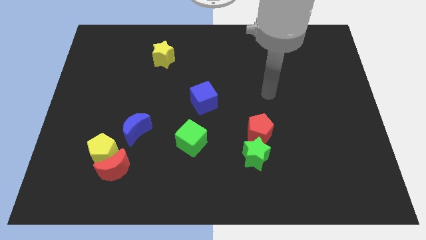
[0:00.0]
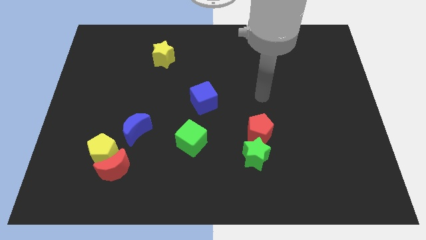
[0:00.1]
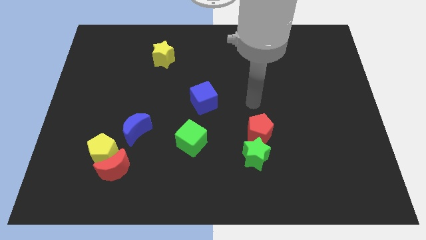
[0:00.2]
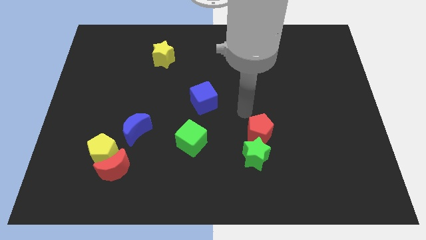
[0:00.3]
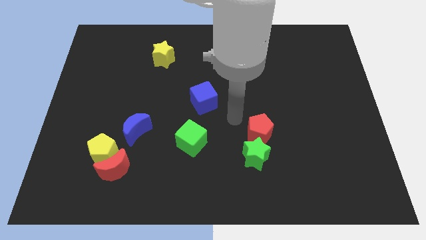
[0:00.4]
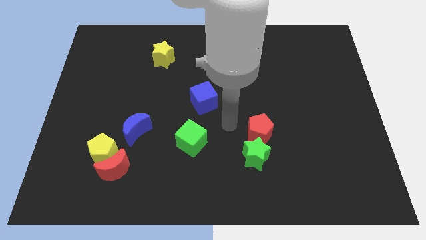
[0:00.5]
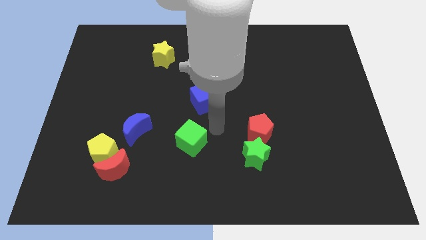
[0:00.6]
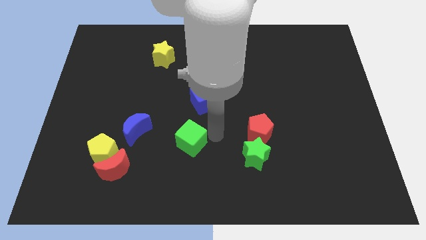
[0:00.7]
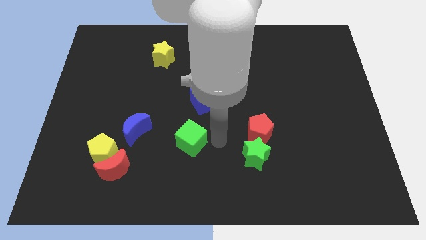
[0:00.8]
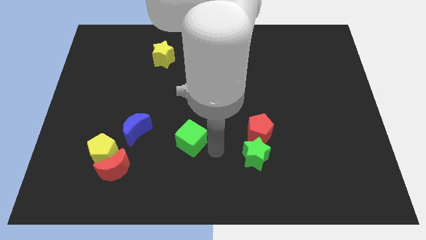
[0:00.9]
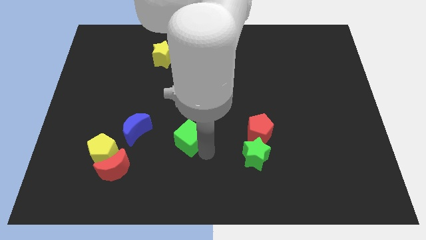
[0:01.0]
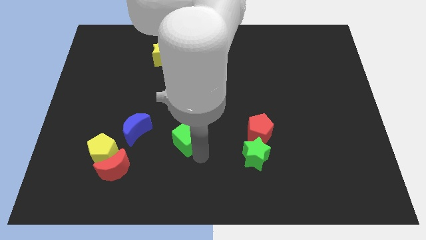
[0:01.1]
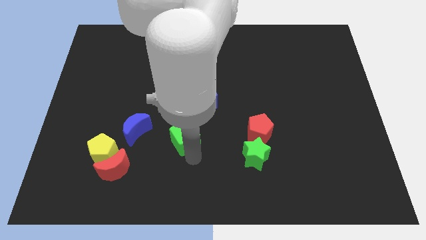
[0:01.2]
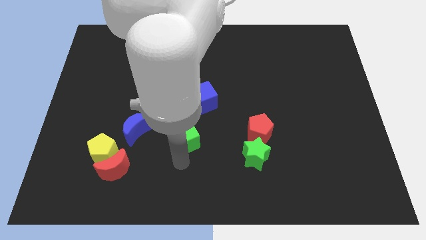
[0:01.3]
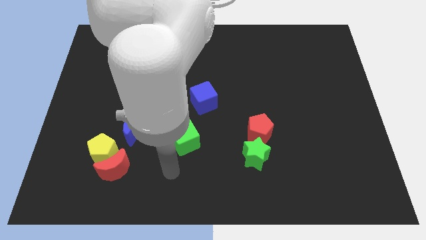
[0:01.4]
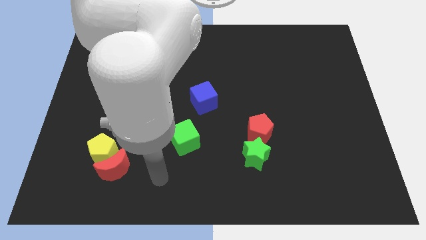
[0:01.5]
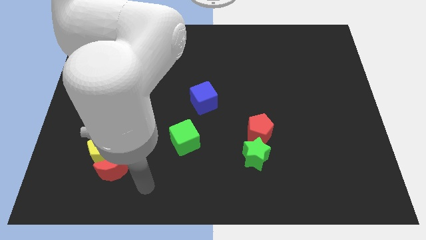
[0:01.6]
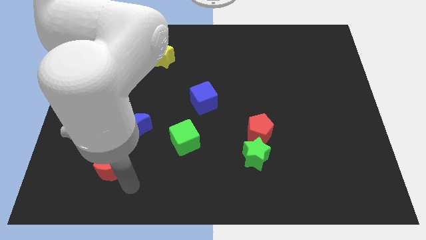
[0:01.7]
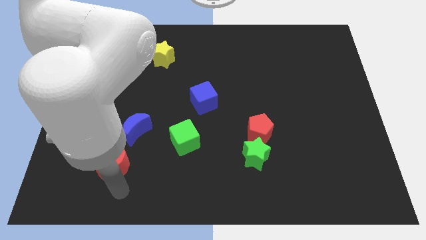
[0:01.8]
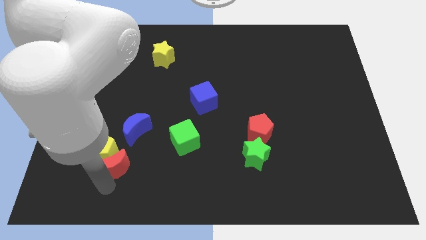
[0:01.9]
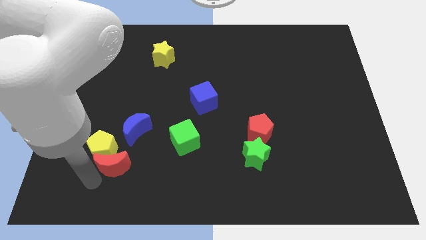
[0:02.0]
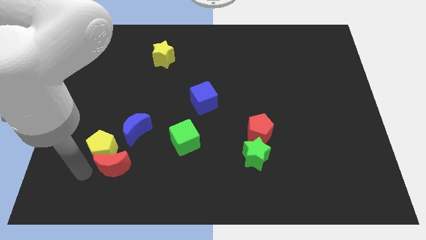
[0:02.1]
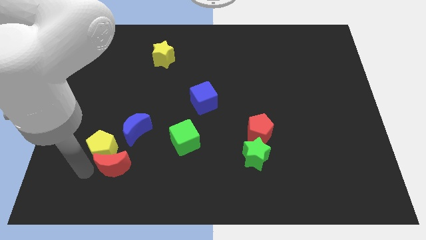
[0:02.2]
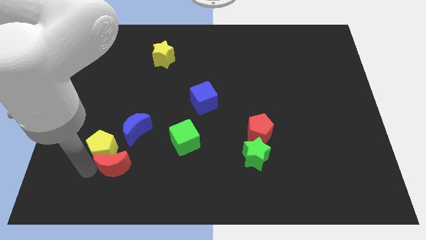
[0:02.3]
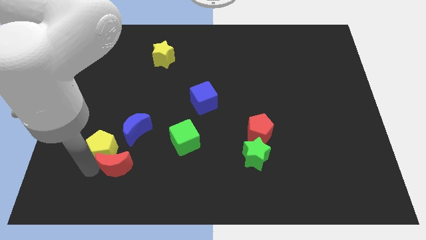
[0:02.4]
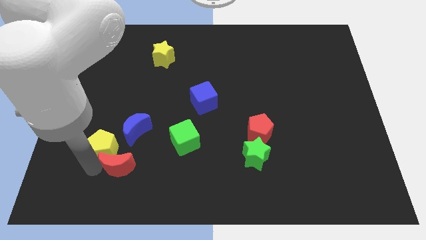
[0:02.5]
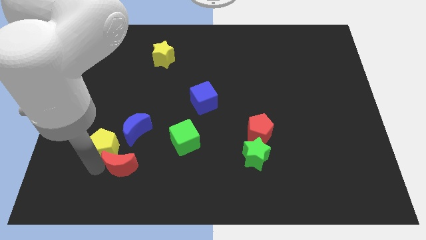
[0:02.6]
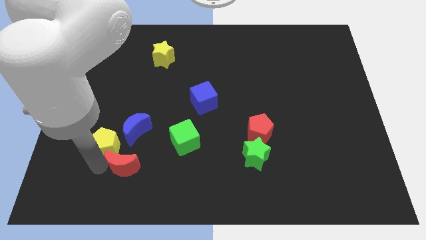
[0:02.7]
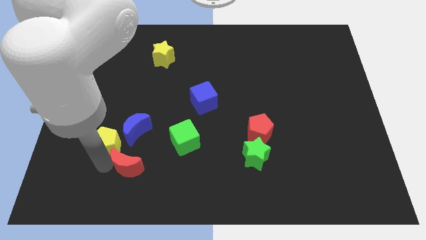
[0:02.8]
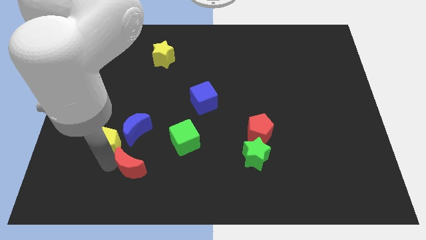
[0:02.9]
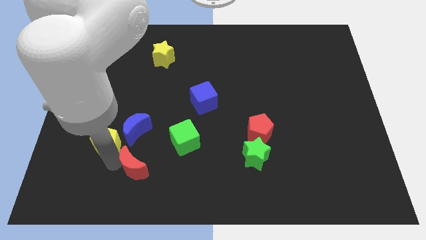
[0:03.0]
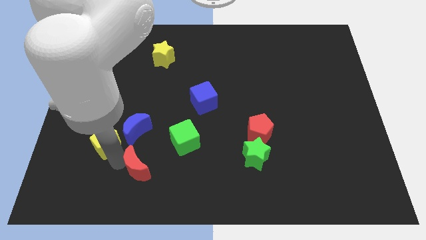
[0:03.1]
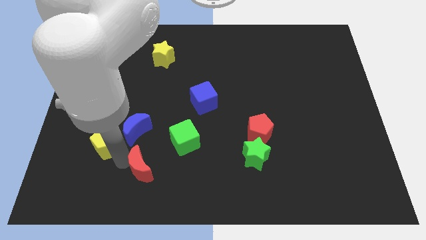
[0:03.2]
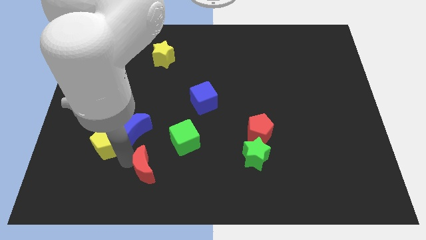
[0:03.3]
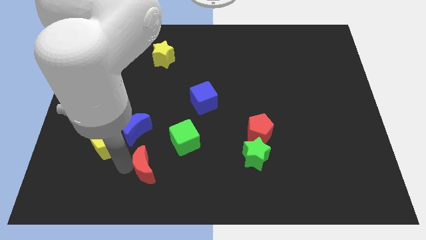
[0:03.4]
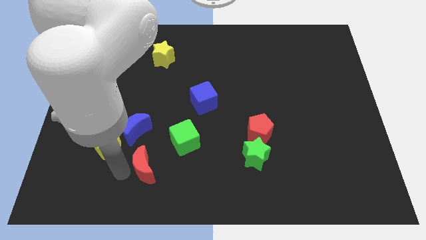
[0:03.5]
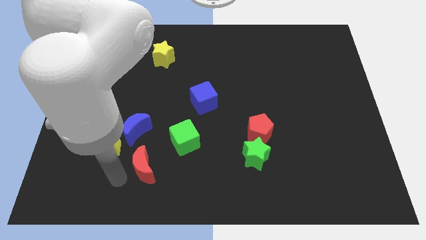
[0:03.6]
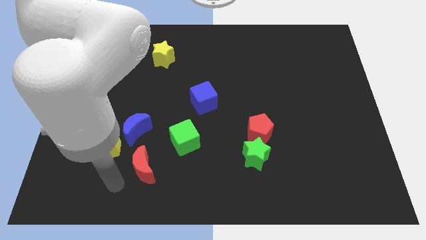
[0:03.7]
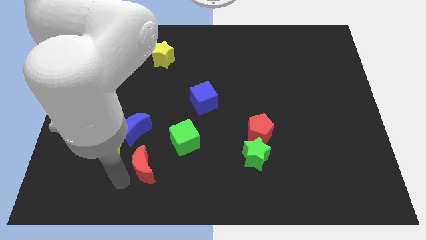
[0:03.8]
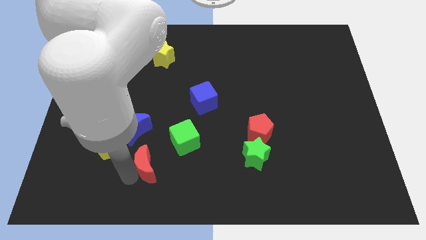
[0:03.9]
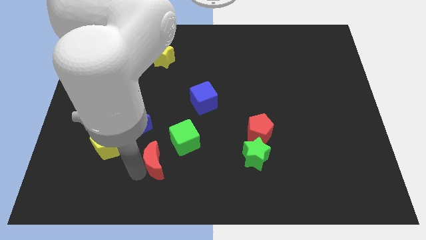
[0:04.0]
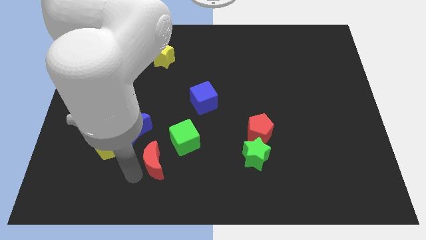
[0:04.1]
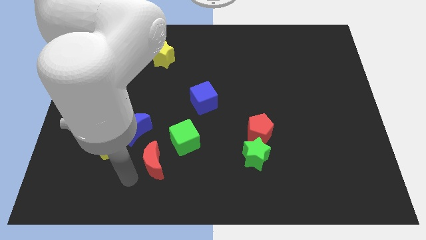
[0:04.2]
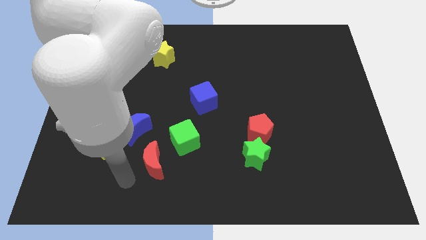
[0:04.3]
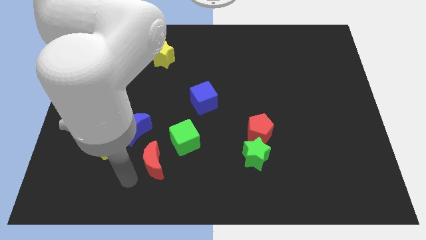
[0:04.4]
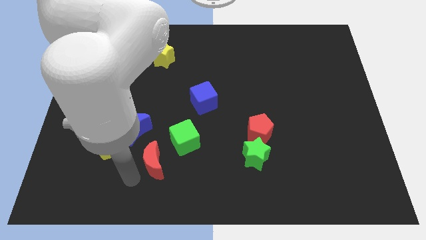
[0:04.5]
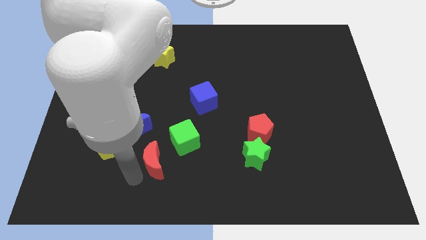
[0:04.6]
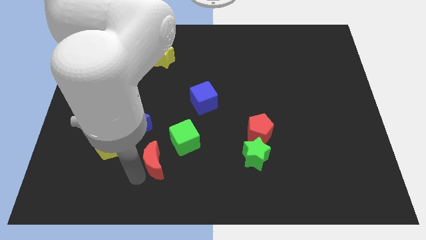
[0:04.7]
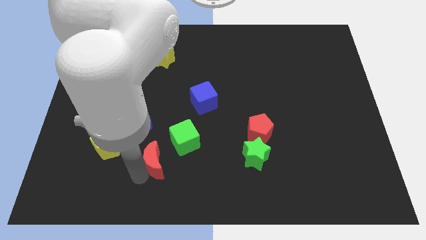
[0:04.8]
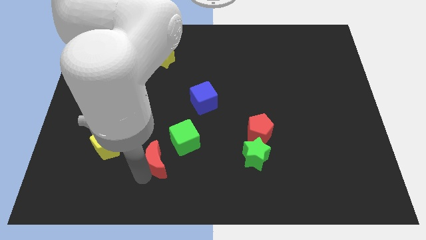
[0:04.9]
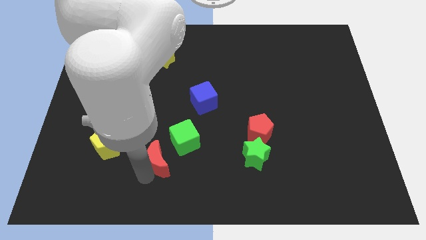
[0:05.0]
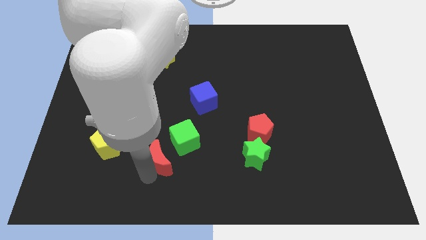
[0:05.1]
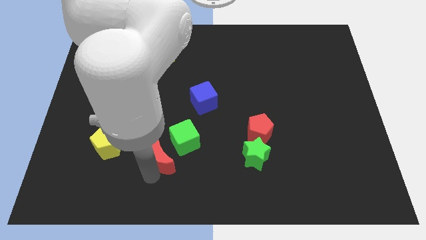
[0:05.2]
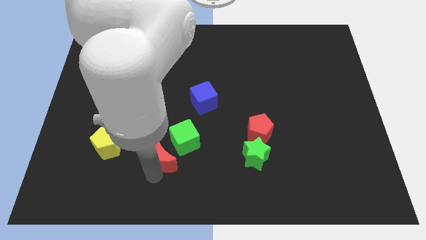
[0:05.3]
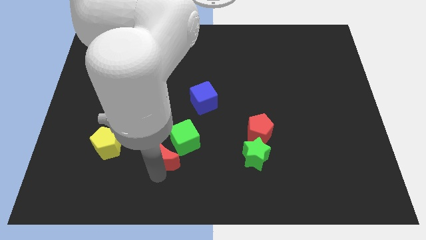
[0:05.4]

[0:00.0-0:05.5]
slide the red moon to the green cube

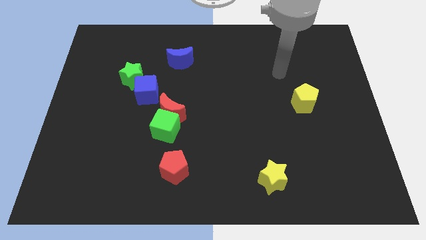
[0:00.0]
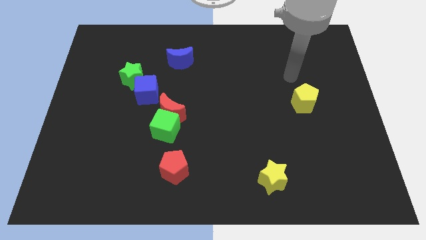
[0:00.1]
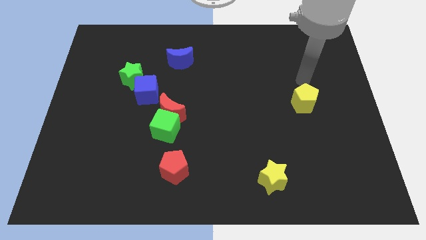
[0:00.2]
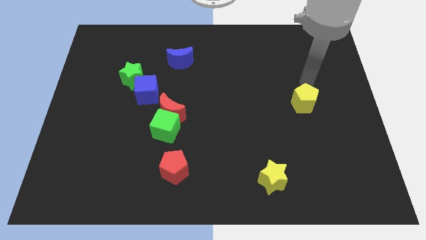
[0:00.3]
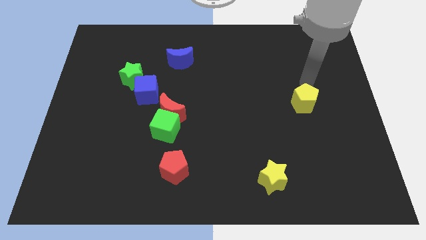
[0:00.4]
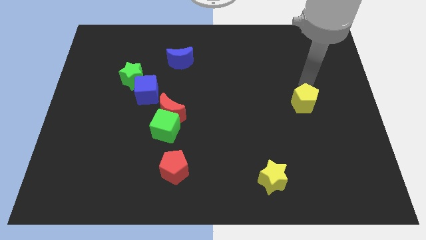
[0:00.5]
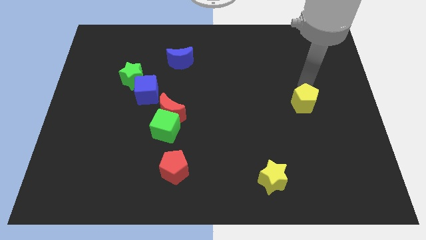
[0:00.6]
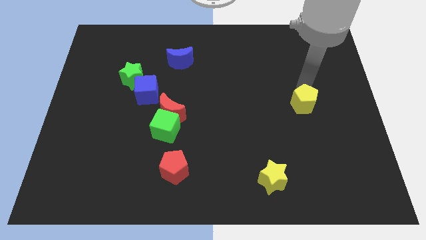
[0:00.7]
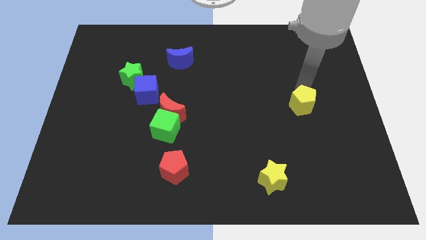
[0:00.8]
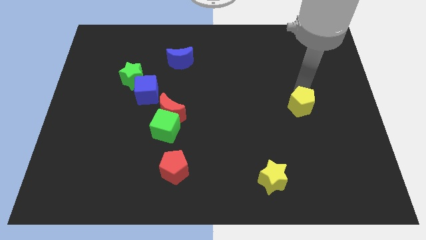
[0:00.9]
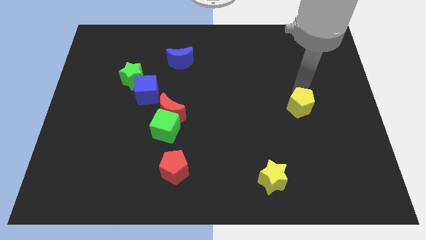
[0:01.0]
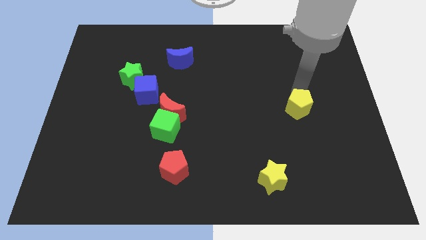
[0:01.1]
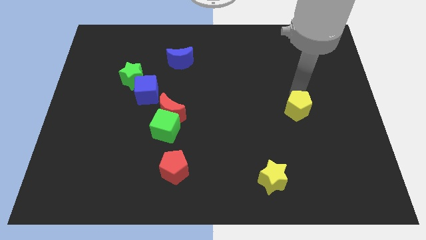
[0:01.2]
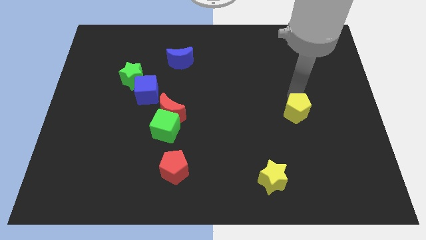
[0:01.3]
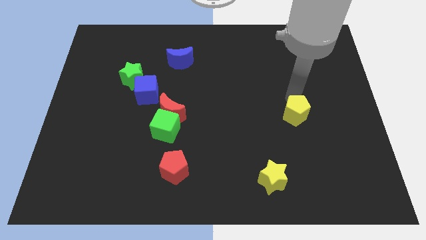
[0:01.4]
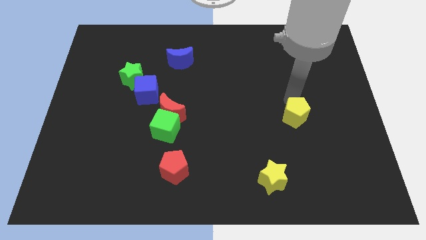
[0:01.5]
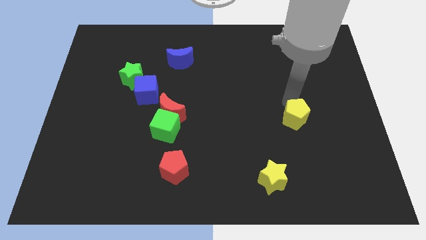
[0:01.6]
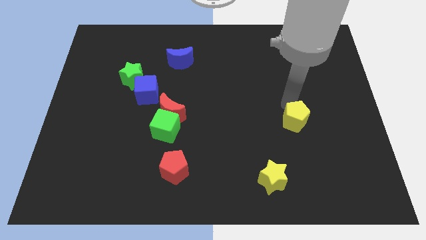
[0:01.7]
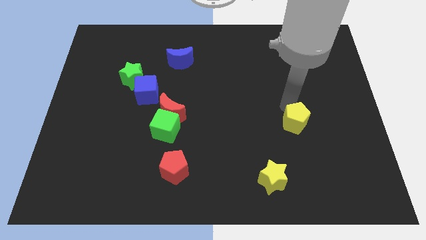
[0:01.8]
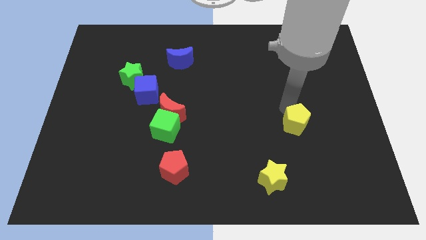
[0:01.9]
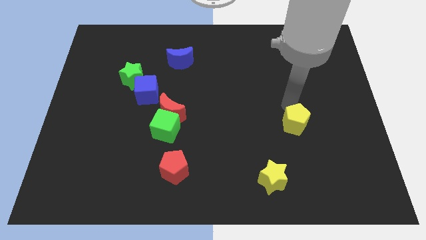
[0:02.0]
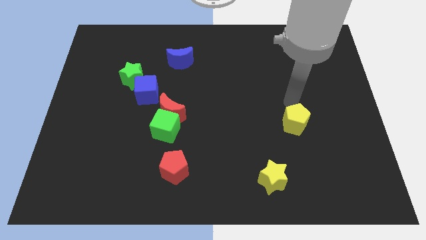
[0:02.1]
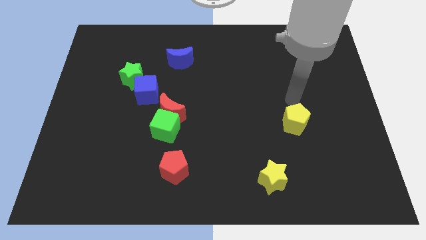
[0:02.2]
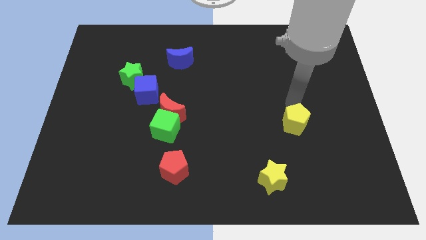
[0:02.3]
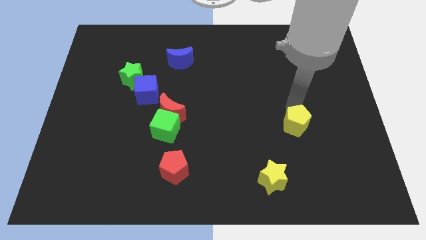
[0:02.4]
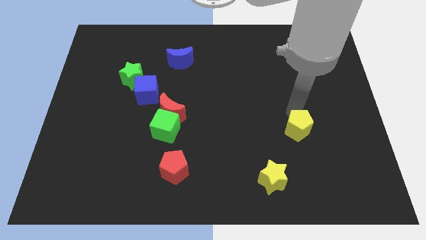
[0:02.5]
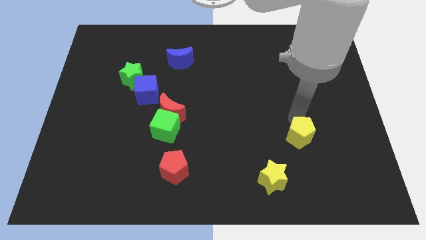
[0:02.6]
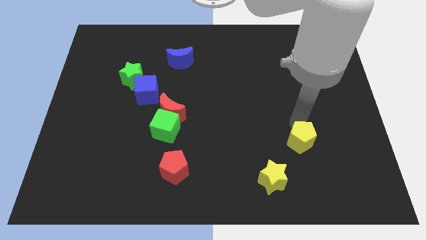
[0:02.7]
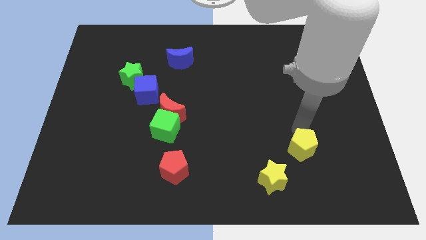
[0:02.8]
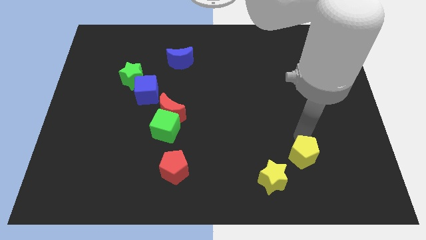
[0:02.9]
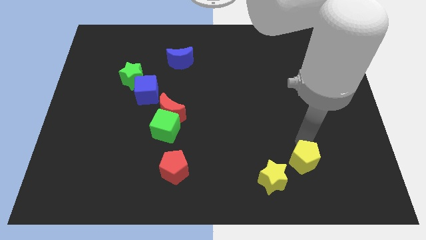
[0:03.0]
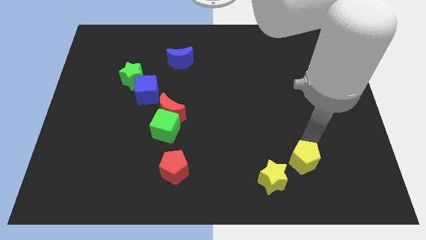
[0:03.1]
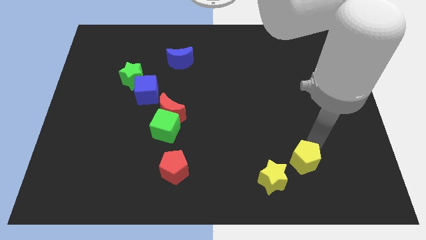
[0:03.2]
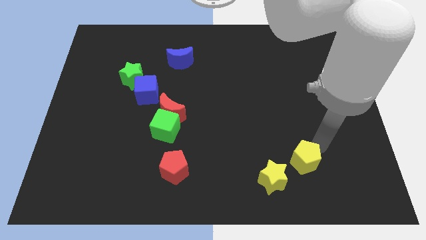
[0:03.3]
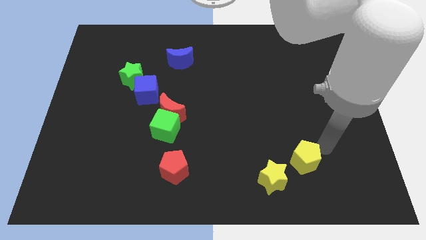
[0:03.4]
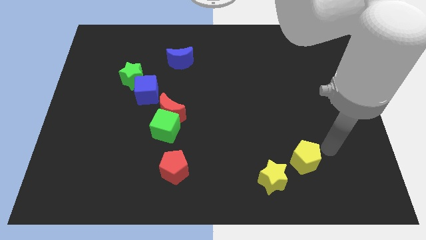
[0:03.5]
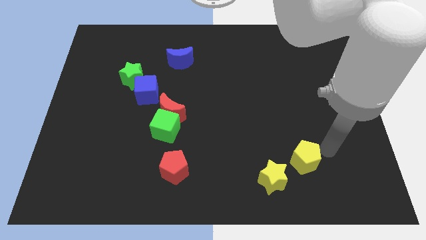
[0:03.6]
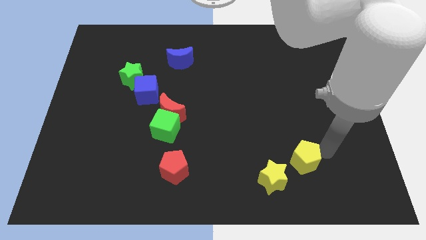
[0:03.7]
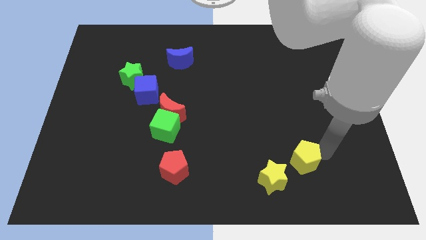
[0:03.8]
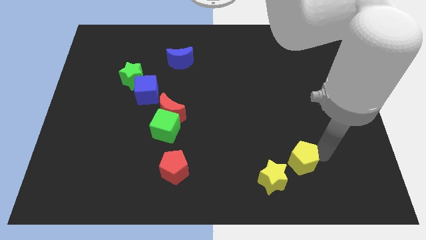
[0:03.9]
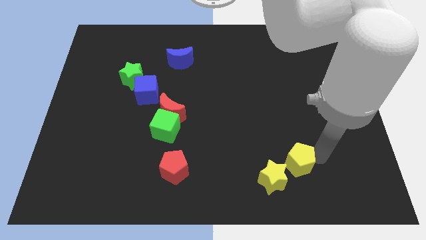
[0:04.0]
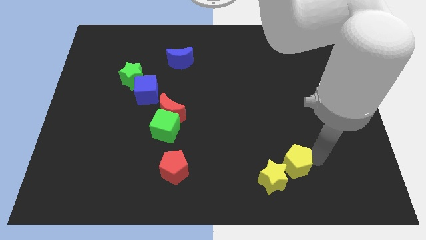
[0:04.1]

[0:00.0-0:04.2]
move the yellow pentagon close to the yellow star
